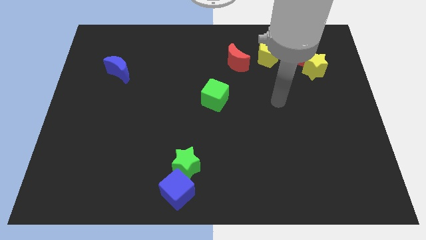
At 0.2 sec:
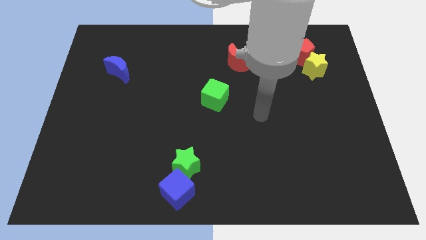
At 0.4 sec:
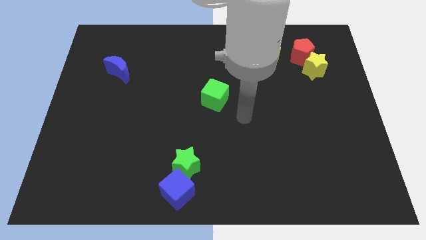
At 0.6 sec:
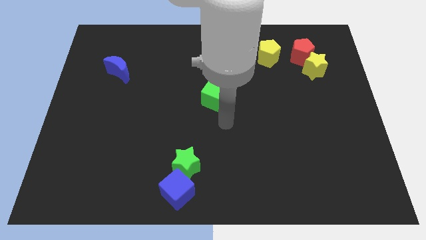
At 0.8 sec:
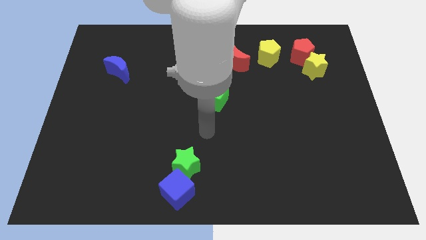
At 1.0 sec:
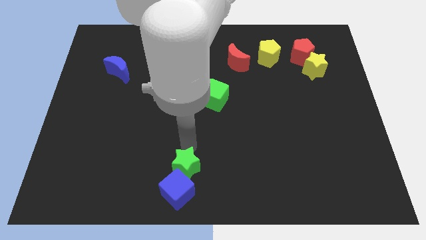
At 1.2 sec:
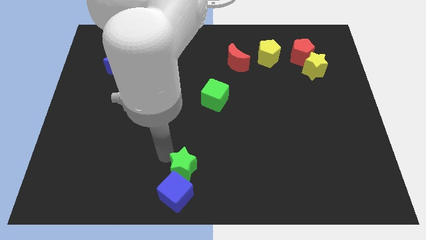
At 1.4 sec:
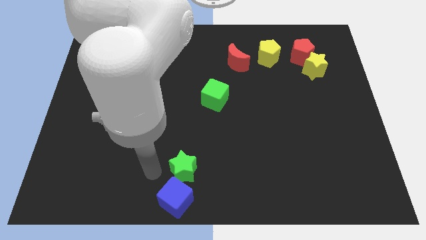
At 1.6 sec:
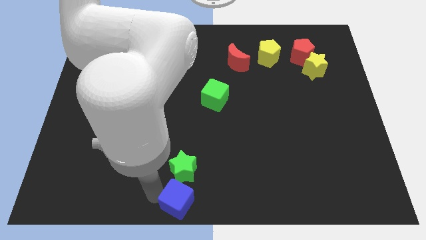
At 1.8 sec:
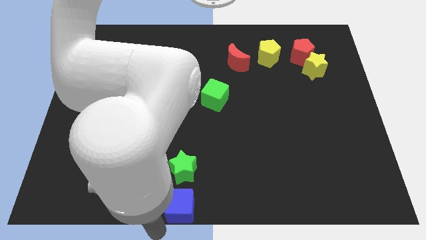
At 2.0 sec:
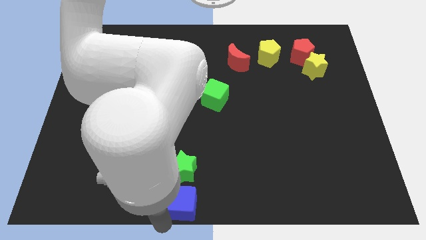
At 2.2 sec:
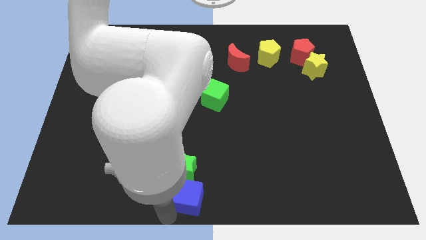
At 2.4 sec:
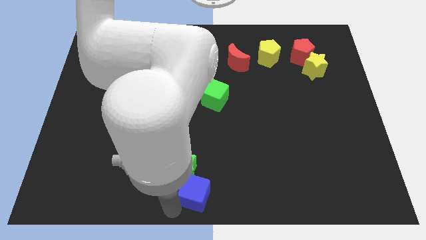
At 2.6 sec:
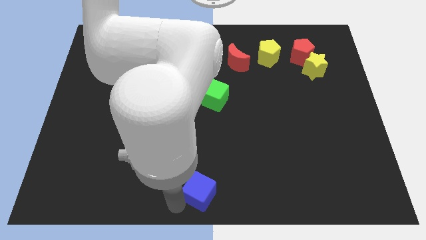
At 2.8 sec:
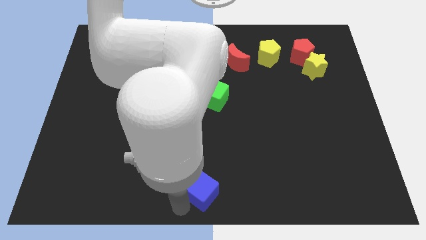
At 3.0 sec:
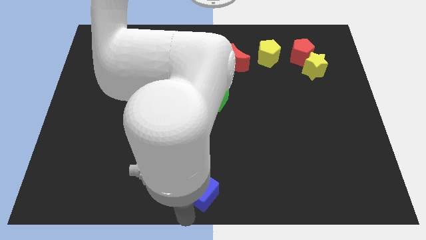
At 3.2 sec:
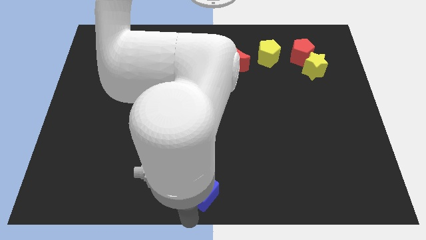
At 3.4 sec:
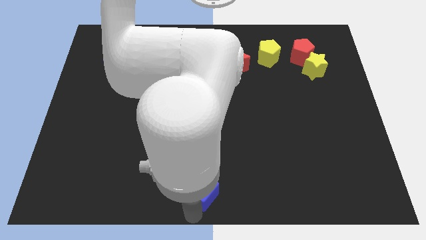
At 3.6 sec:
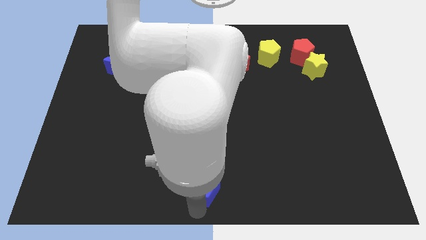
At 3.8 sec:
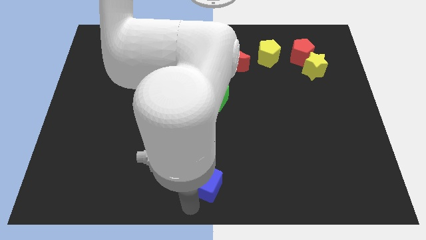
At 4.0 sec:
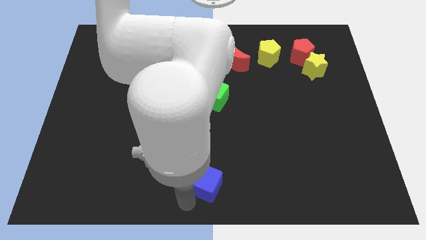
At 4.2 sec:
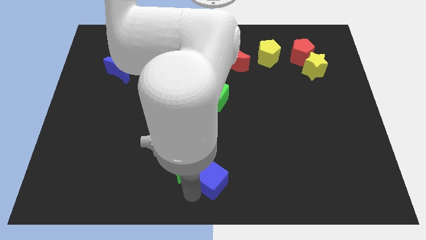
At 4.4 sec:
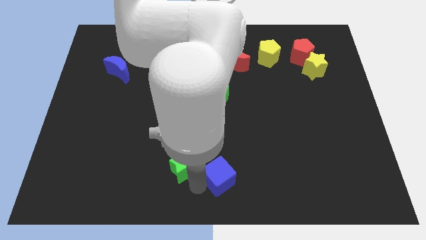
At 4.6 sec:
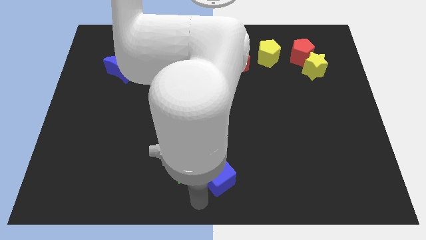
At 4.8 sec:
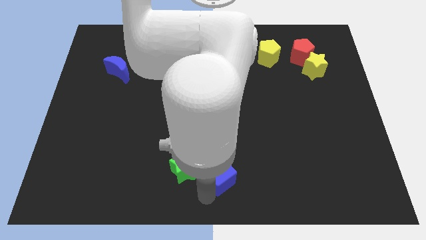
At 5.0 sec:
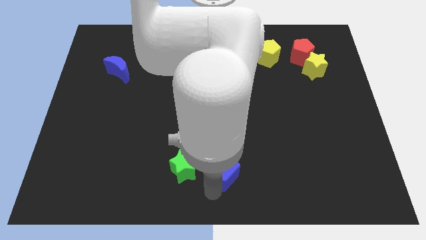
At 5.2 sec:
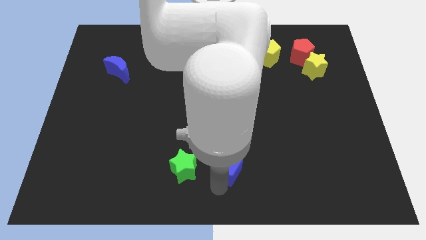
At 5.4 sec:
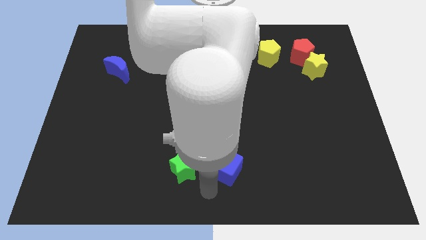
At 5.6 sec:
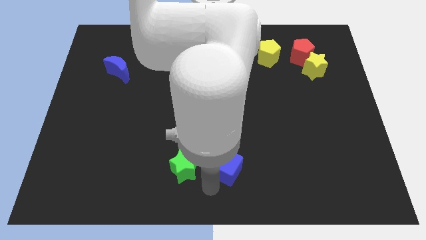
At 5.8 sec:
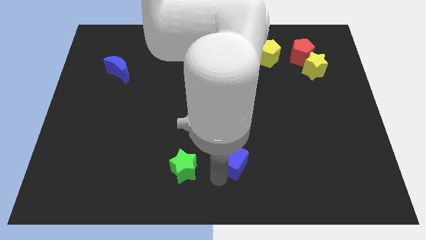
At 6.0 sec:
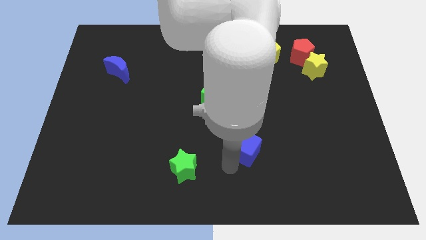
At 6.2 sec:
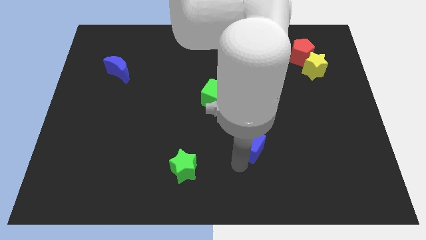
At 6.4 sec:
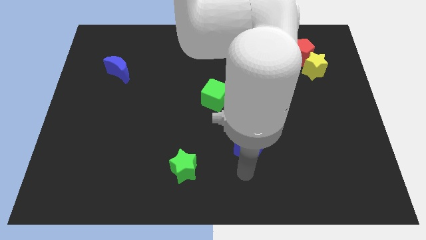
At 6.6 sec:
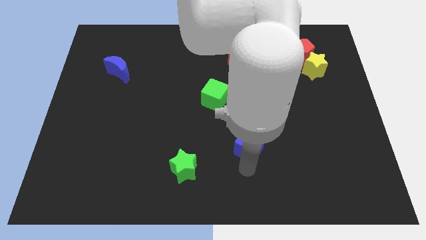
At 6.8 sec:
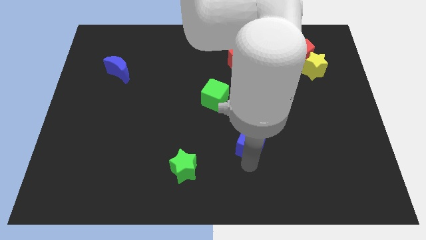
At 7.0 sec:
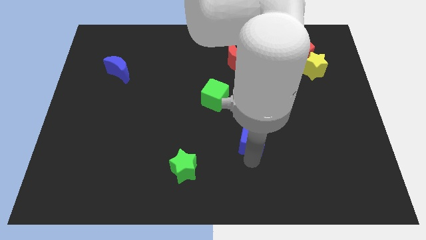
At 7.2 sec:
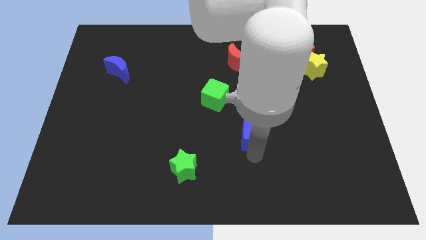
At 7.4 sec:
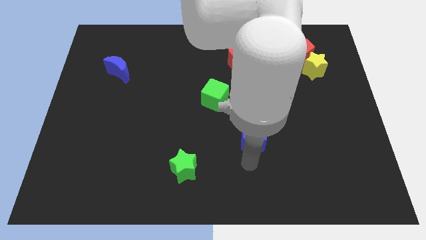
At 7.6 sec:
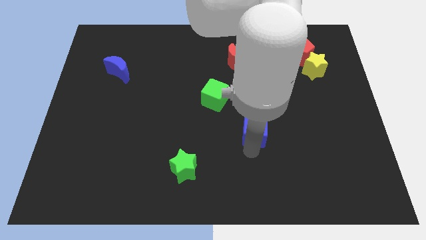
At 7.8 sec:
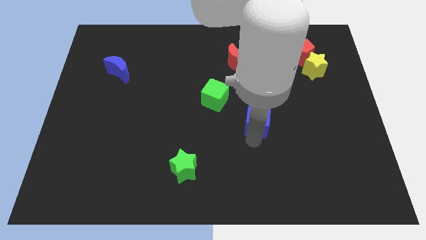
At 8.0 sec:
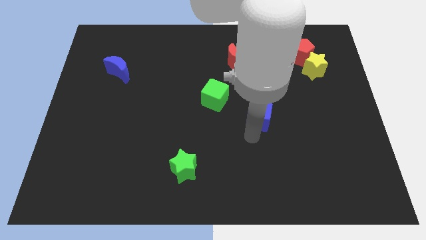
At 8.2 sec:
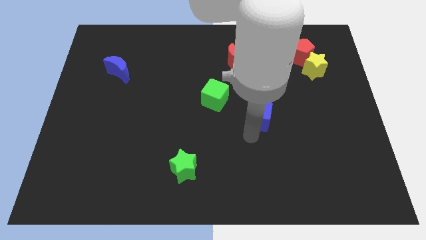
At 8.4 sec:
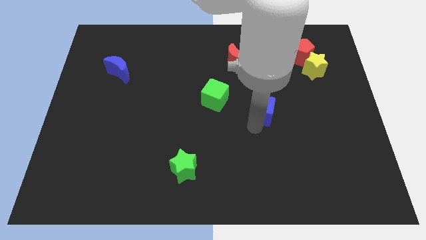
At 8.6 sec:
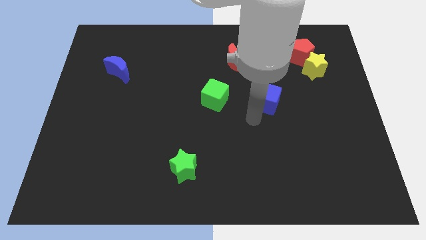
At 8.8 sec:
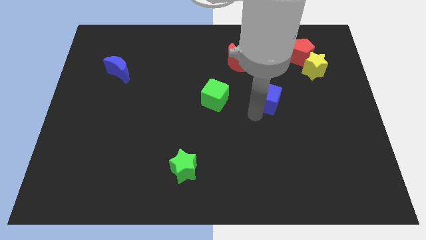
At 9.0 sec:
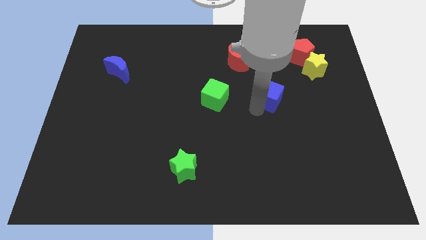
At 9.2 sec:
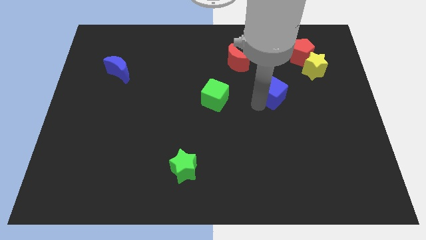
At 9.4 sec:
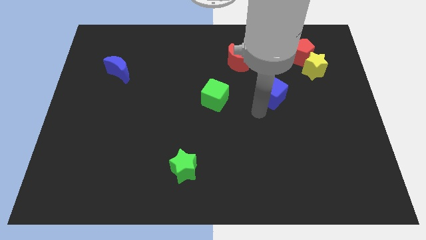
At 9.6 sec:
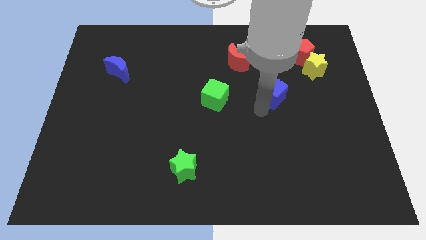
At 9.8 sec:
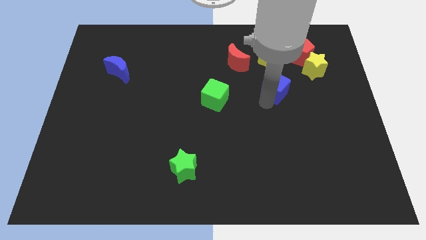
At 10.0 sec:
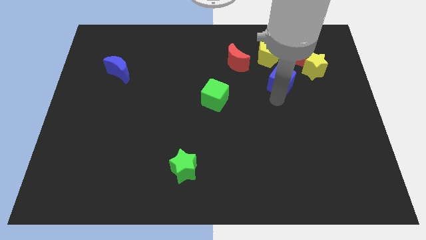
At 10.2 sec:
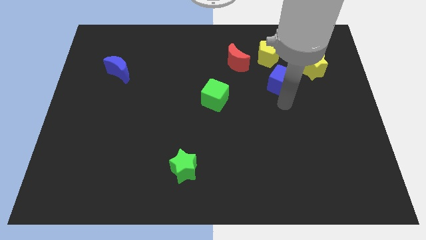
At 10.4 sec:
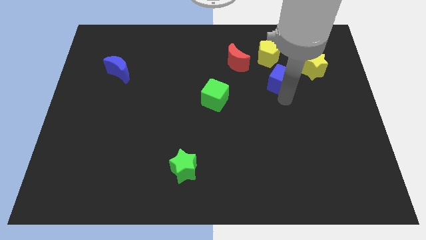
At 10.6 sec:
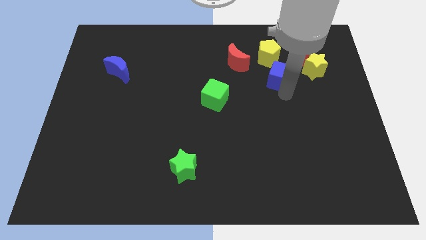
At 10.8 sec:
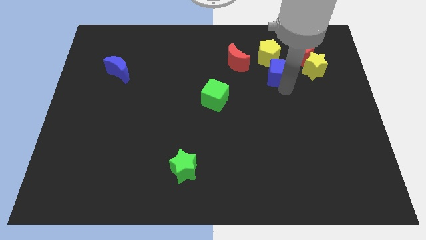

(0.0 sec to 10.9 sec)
move the blue cube to the right of the red moon

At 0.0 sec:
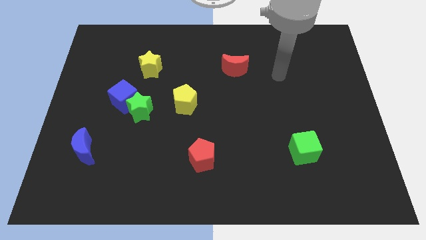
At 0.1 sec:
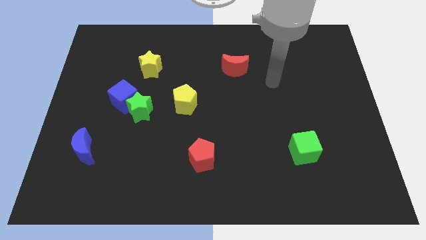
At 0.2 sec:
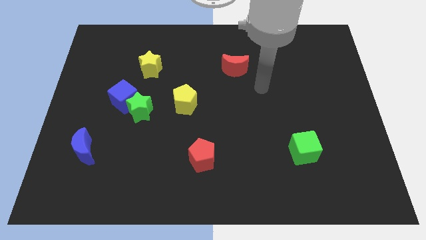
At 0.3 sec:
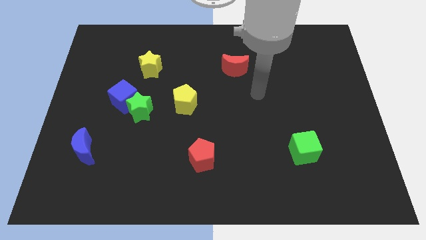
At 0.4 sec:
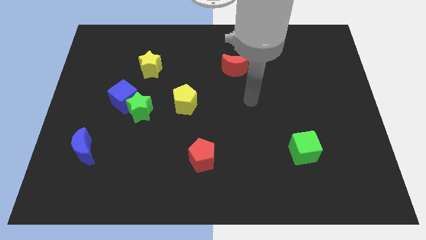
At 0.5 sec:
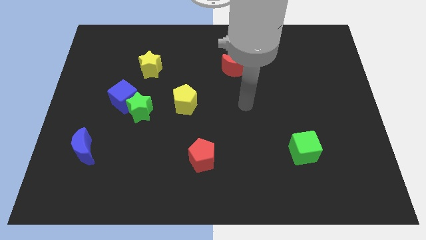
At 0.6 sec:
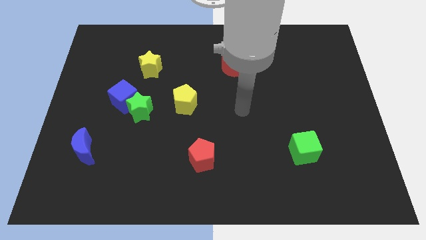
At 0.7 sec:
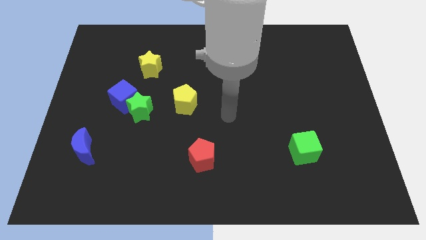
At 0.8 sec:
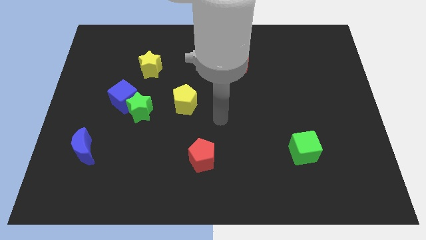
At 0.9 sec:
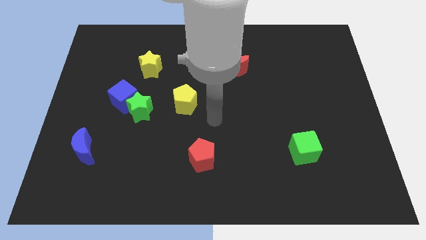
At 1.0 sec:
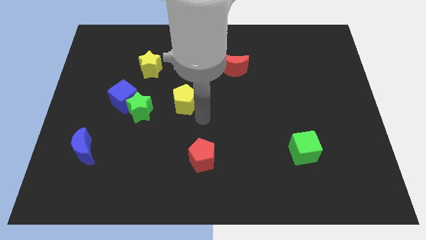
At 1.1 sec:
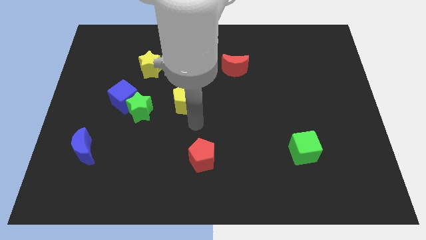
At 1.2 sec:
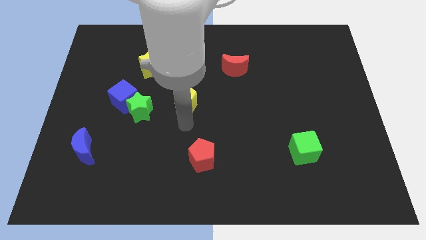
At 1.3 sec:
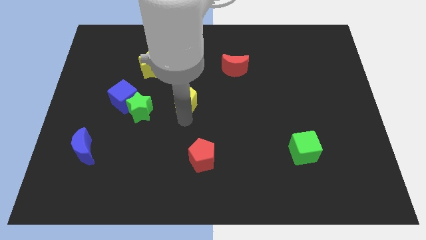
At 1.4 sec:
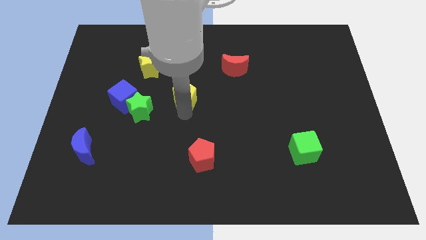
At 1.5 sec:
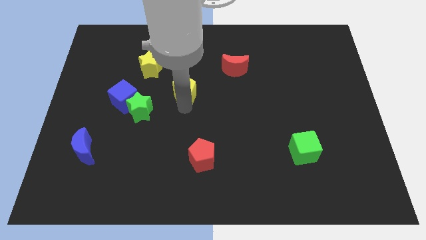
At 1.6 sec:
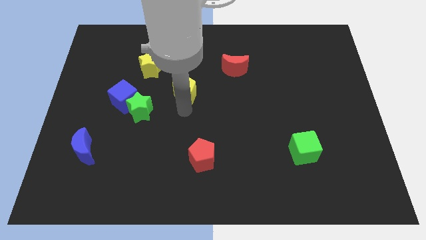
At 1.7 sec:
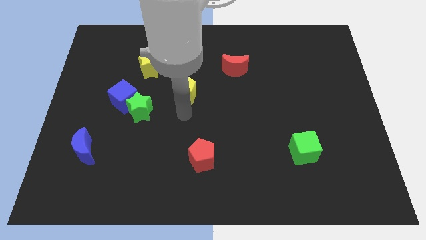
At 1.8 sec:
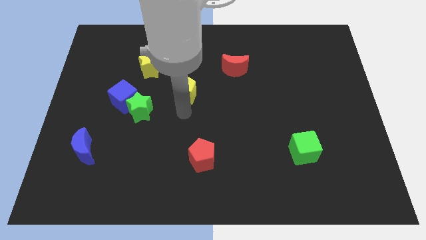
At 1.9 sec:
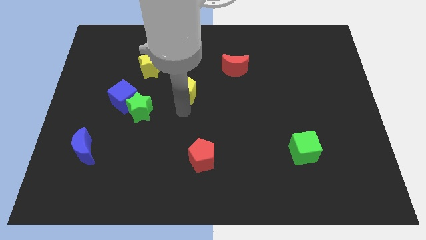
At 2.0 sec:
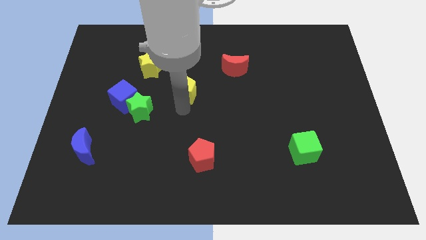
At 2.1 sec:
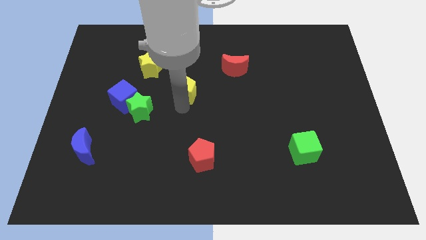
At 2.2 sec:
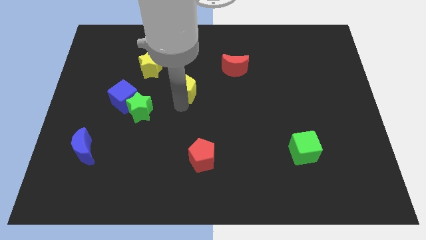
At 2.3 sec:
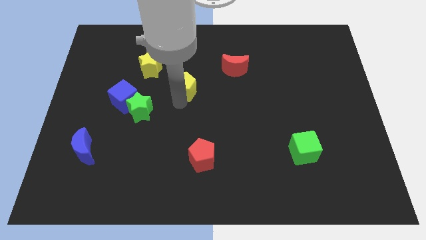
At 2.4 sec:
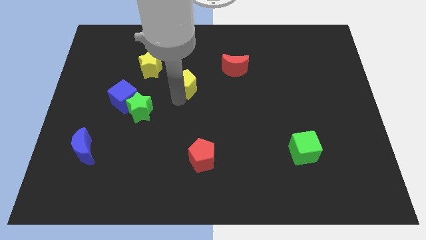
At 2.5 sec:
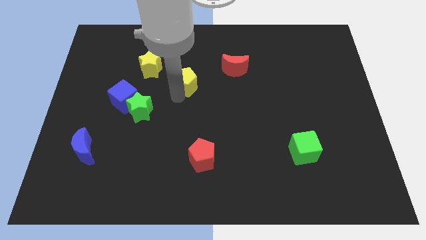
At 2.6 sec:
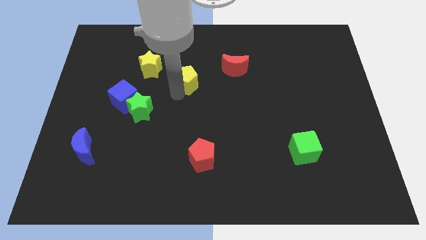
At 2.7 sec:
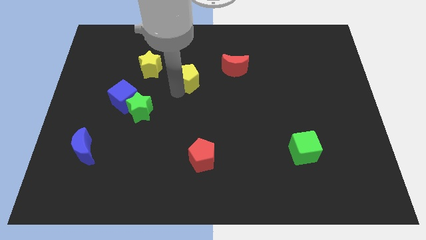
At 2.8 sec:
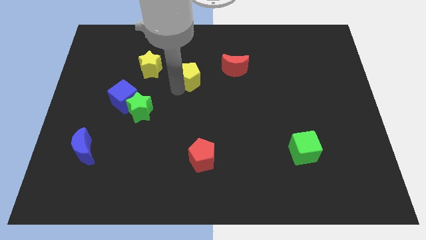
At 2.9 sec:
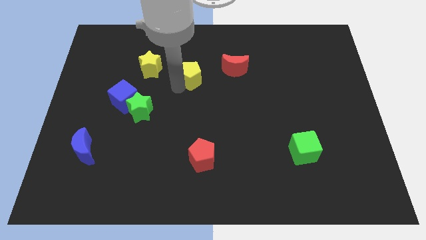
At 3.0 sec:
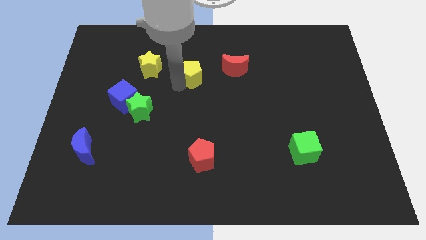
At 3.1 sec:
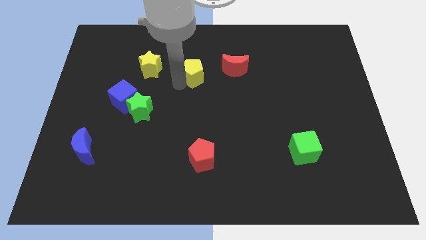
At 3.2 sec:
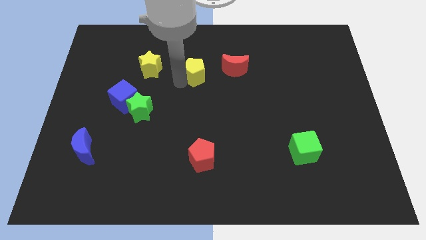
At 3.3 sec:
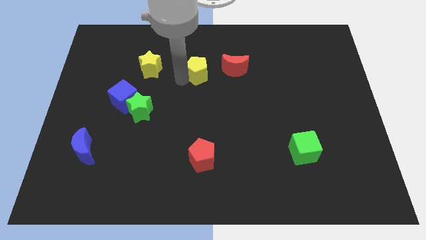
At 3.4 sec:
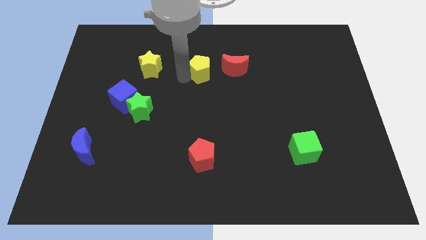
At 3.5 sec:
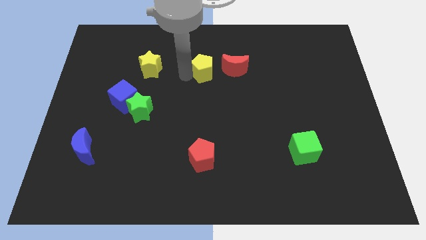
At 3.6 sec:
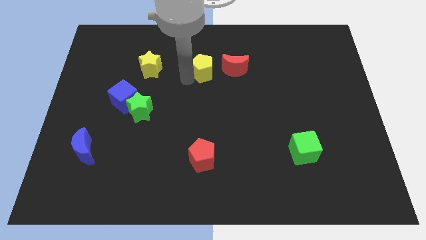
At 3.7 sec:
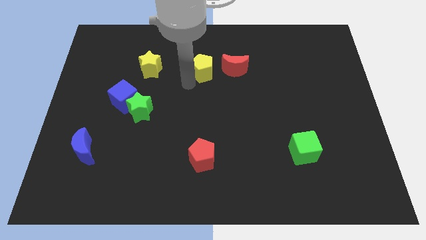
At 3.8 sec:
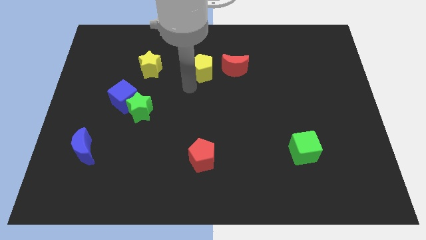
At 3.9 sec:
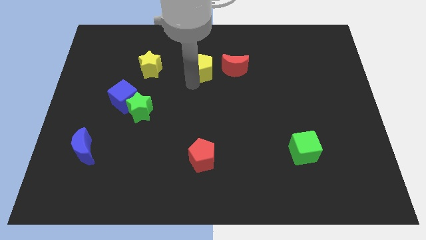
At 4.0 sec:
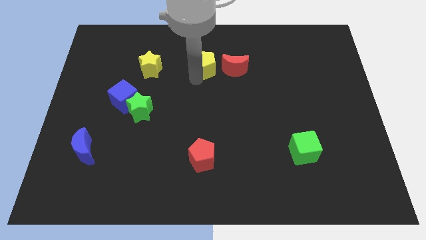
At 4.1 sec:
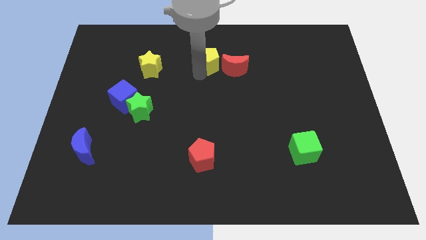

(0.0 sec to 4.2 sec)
put the yellow pentagon diagonally up and to the left of the red moon
